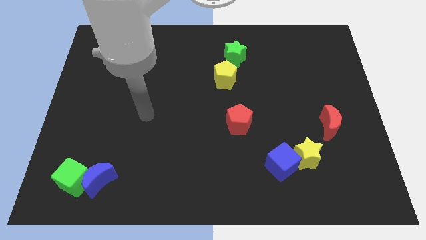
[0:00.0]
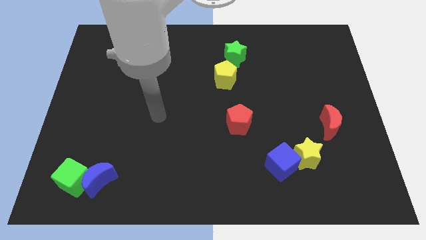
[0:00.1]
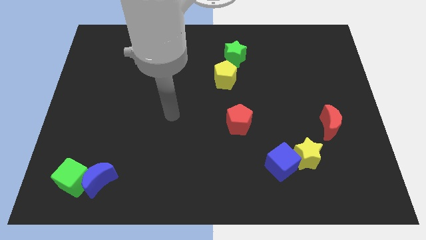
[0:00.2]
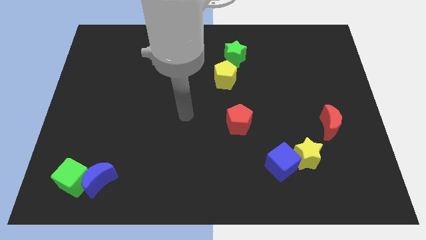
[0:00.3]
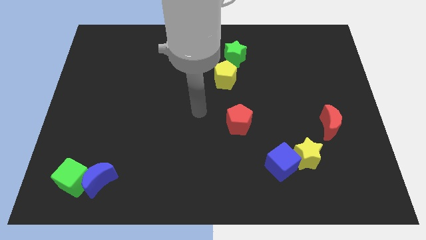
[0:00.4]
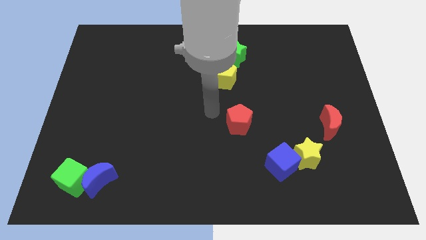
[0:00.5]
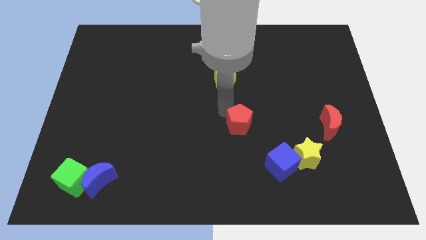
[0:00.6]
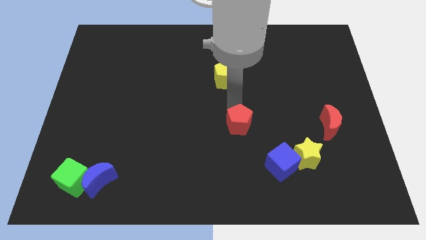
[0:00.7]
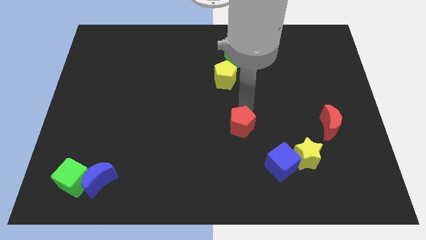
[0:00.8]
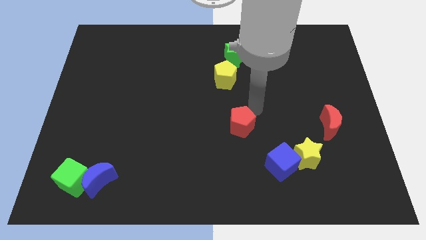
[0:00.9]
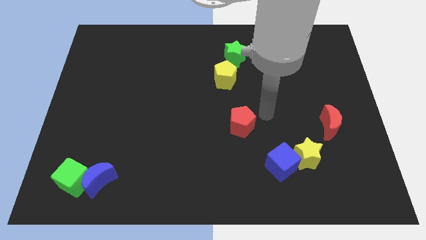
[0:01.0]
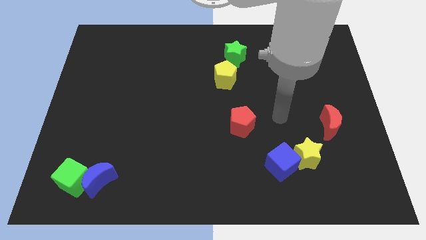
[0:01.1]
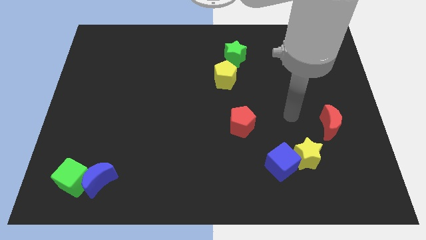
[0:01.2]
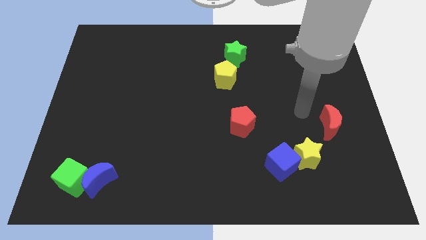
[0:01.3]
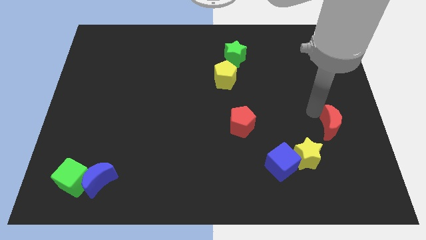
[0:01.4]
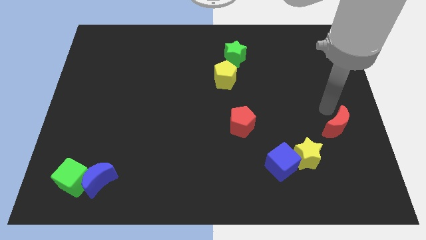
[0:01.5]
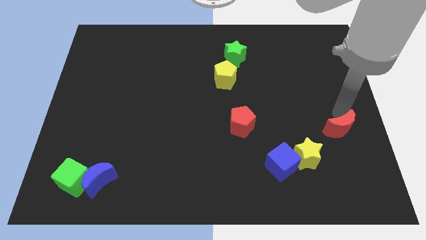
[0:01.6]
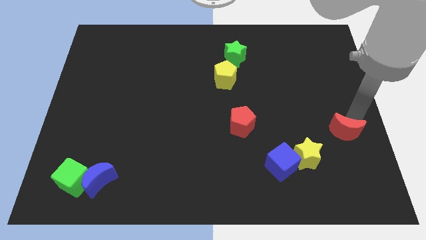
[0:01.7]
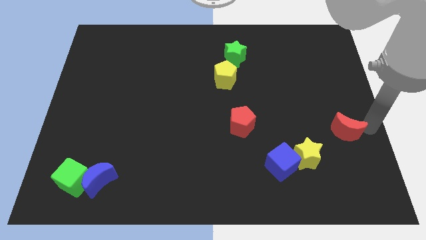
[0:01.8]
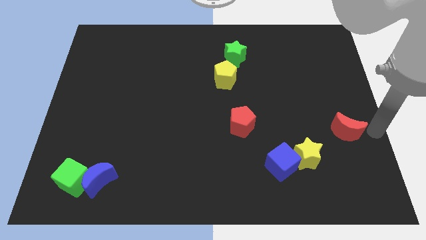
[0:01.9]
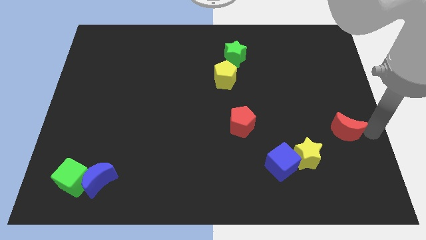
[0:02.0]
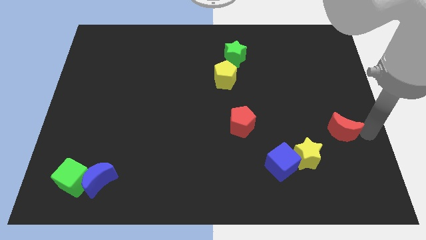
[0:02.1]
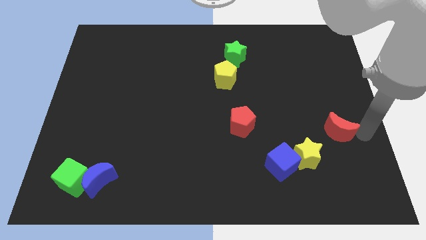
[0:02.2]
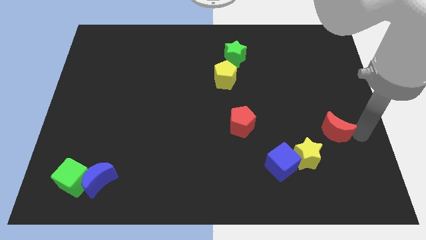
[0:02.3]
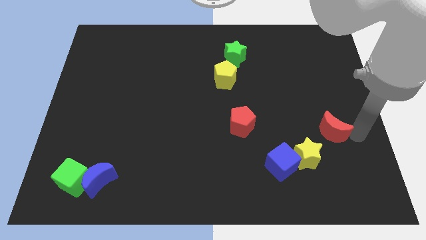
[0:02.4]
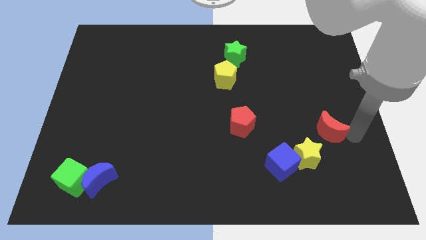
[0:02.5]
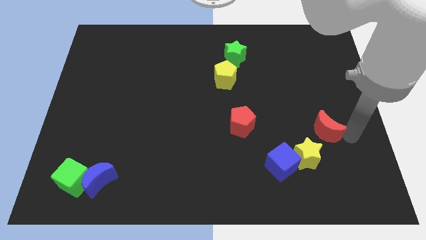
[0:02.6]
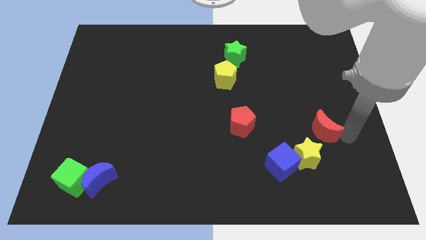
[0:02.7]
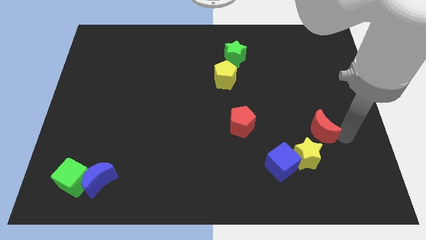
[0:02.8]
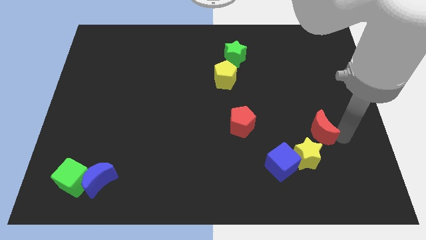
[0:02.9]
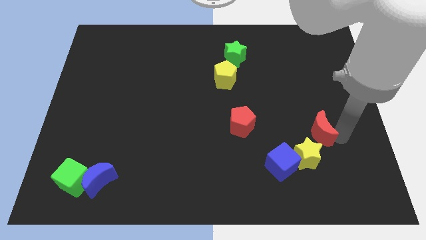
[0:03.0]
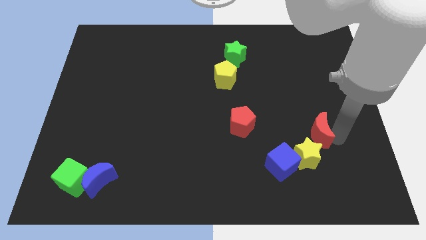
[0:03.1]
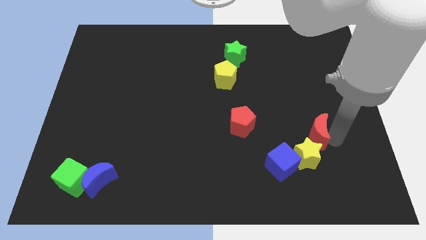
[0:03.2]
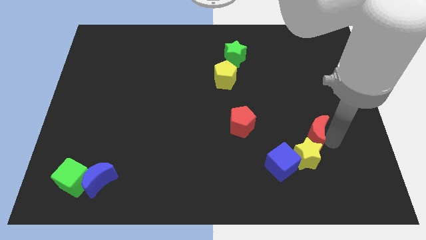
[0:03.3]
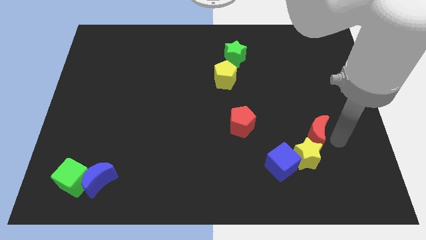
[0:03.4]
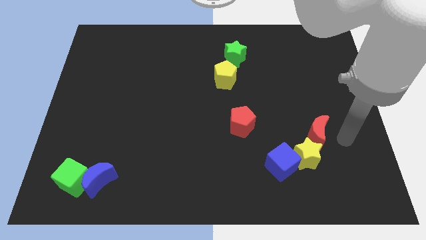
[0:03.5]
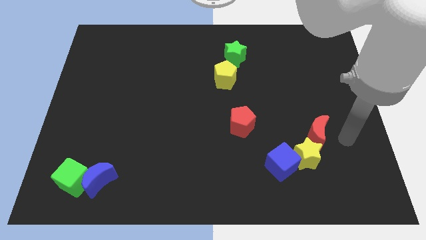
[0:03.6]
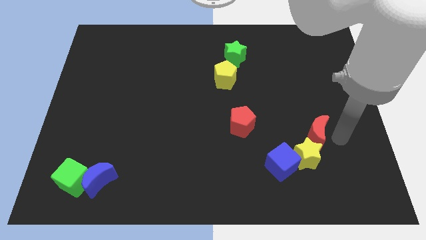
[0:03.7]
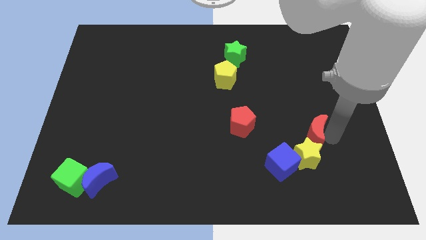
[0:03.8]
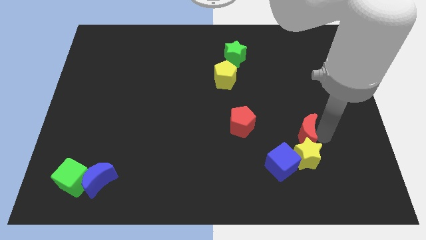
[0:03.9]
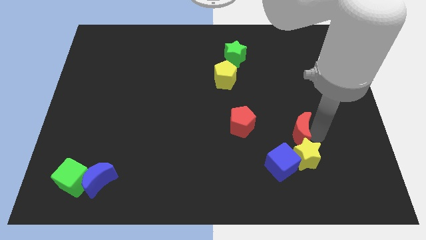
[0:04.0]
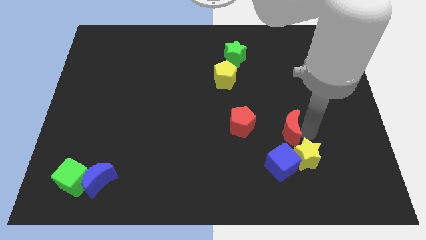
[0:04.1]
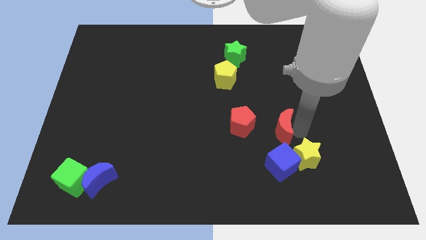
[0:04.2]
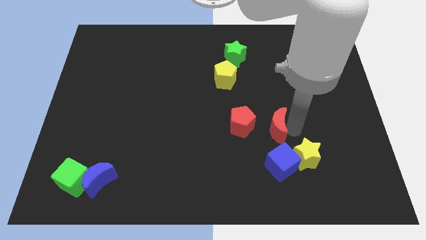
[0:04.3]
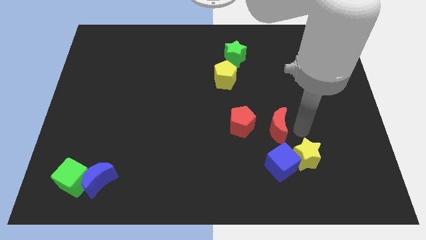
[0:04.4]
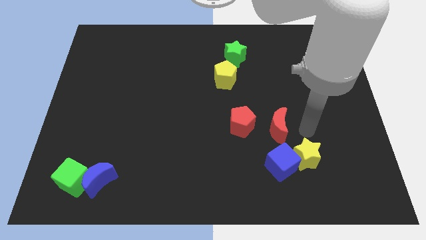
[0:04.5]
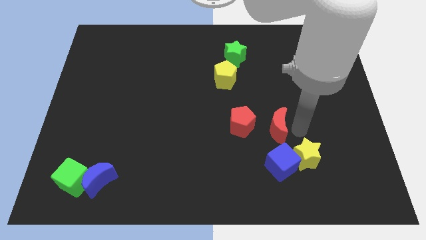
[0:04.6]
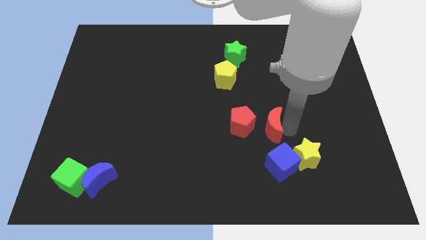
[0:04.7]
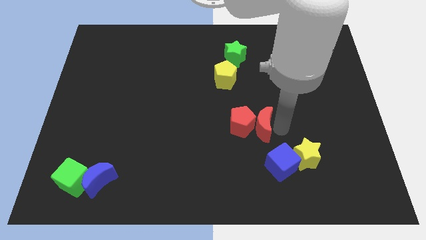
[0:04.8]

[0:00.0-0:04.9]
put the red moon towards the red pentagon

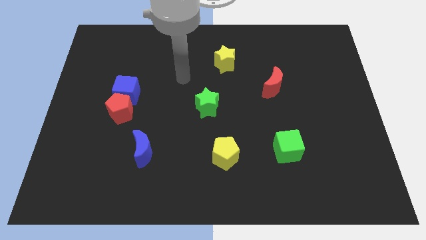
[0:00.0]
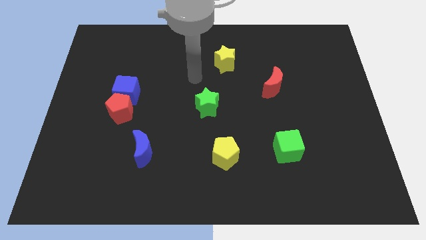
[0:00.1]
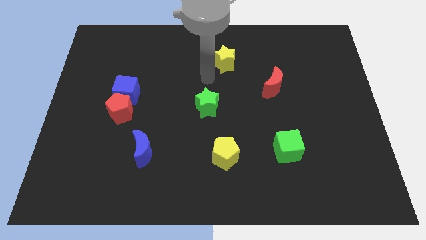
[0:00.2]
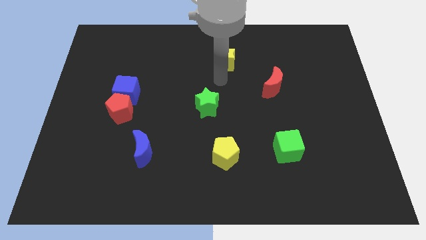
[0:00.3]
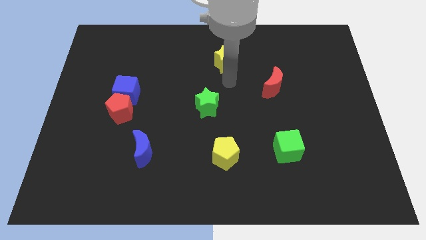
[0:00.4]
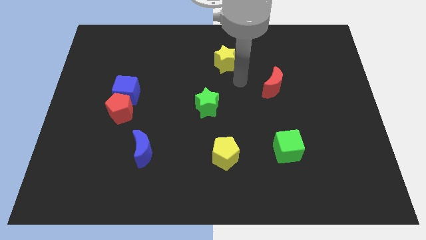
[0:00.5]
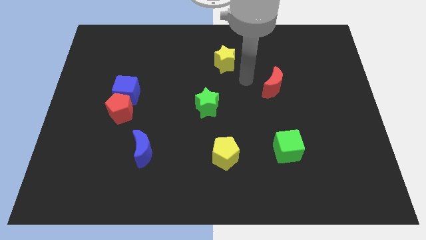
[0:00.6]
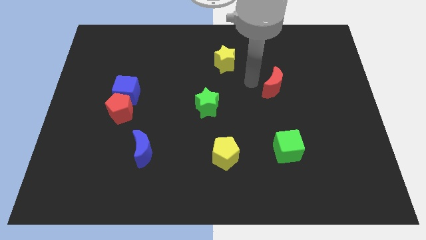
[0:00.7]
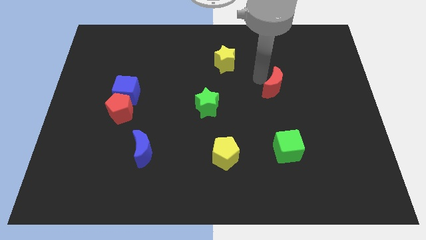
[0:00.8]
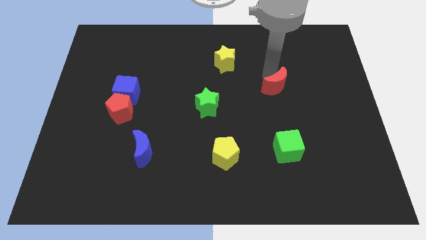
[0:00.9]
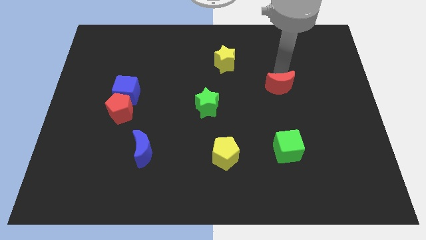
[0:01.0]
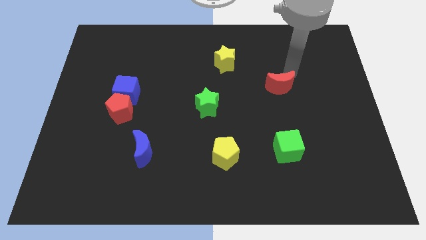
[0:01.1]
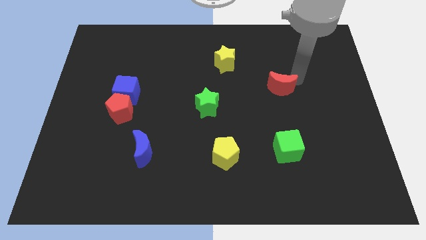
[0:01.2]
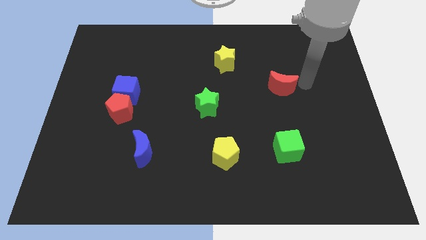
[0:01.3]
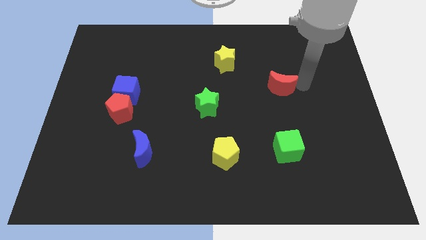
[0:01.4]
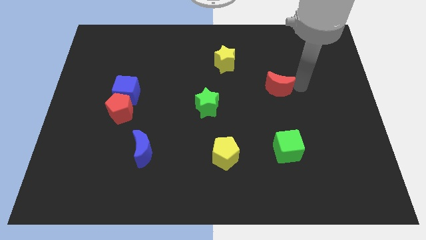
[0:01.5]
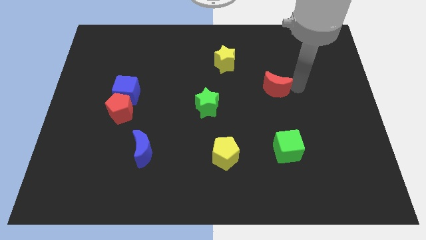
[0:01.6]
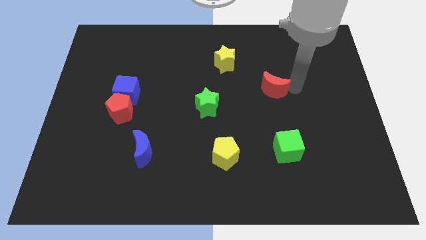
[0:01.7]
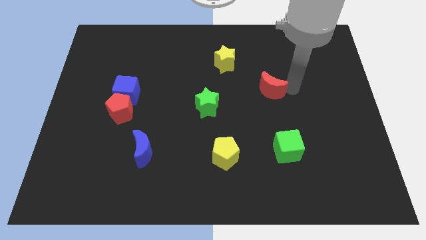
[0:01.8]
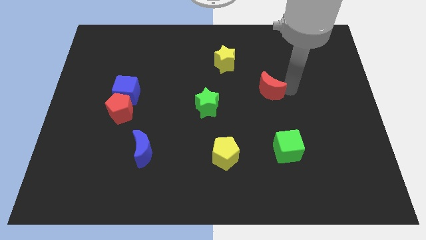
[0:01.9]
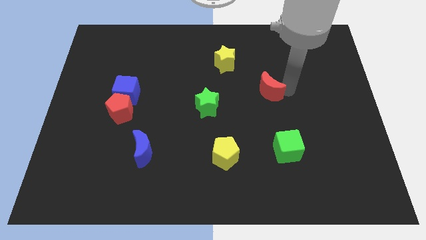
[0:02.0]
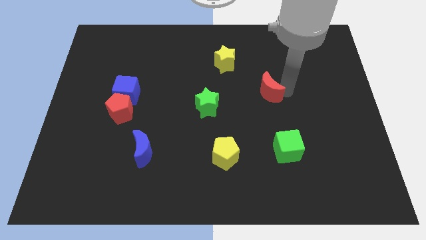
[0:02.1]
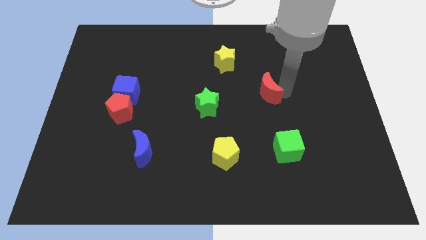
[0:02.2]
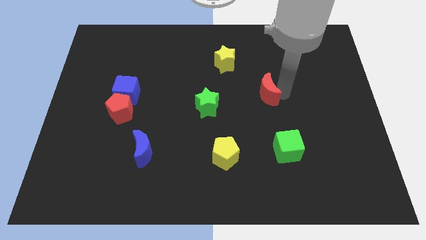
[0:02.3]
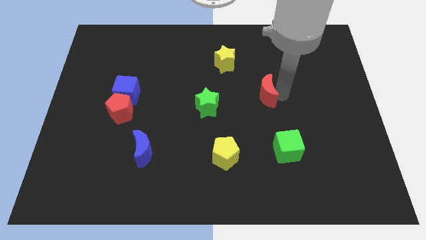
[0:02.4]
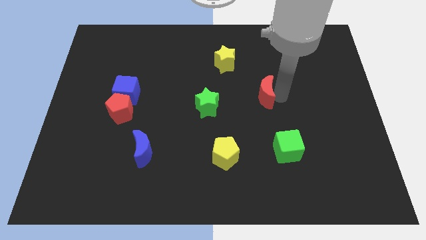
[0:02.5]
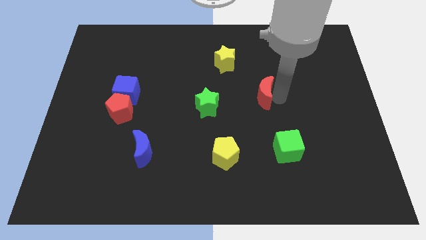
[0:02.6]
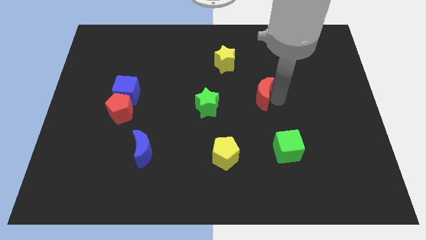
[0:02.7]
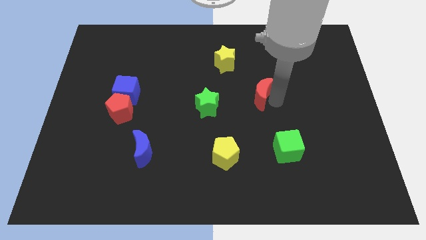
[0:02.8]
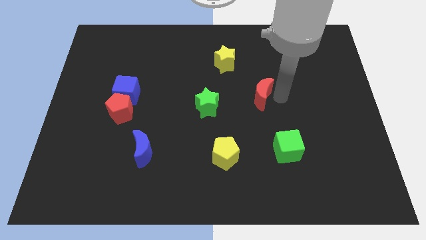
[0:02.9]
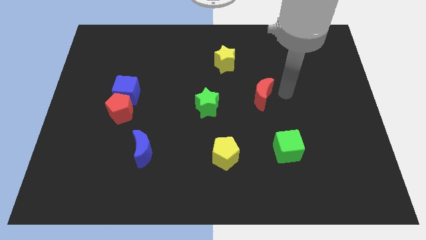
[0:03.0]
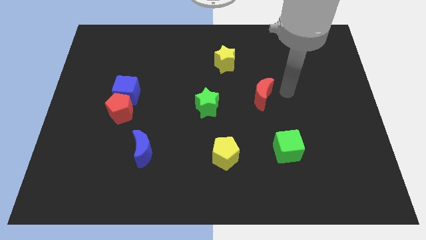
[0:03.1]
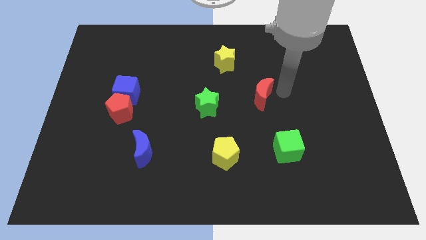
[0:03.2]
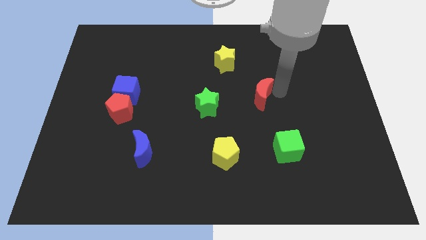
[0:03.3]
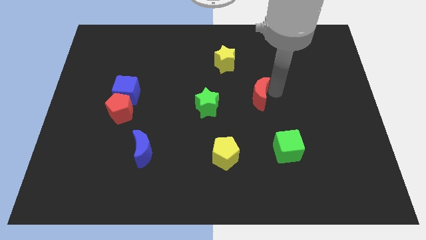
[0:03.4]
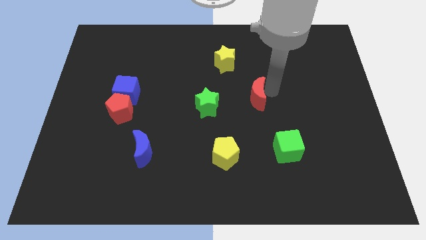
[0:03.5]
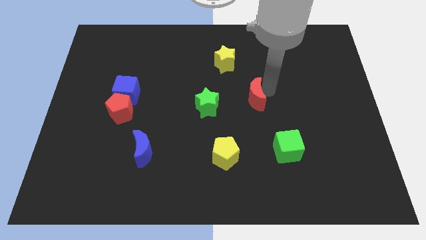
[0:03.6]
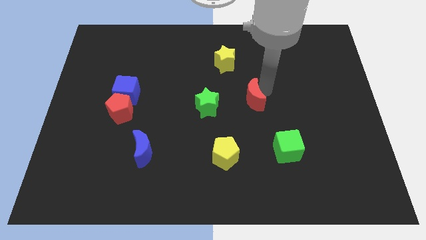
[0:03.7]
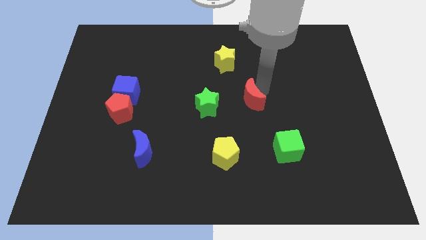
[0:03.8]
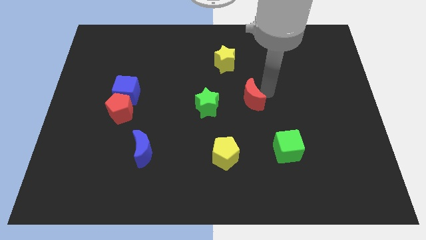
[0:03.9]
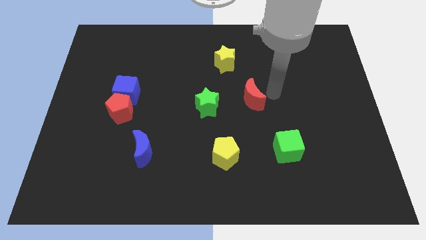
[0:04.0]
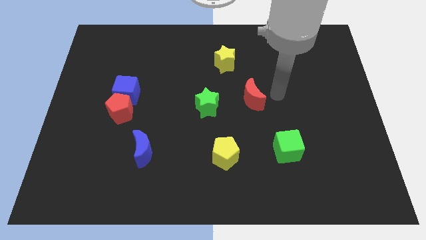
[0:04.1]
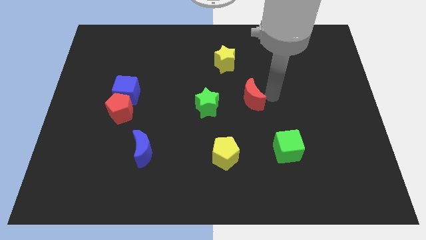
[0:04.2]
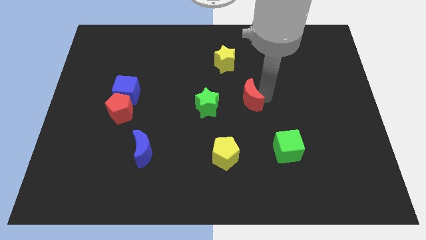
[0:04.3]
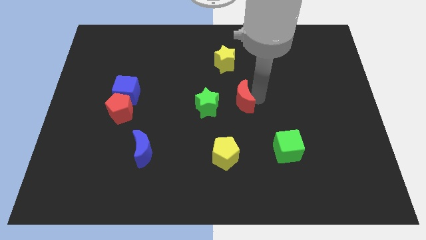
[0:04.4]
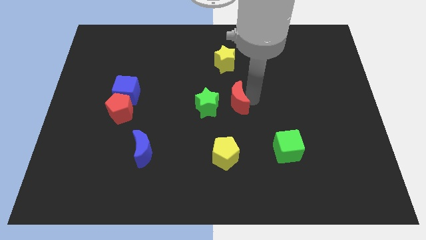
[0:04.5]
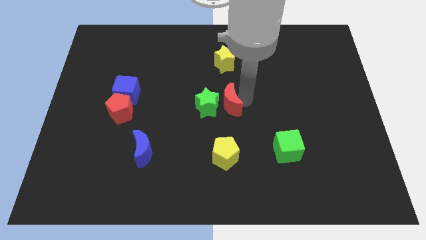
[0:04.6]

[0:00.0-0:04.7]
move the red moon next to the green star
